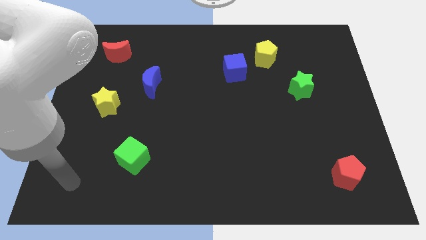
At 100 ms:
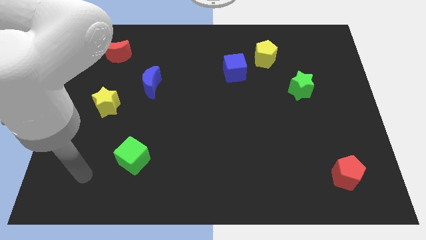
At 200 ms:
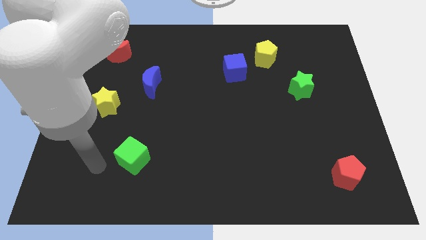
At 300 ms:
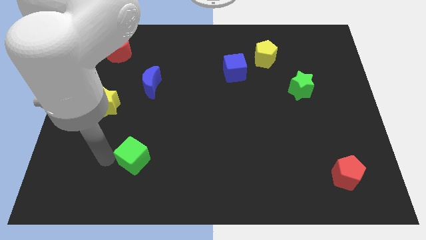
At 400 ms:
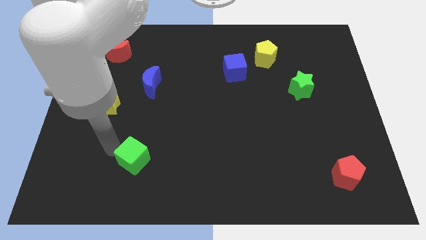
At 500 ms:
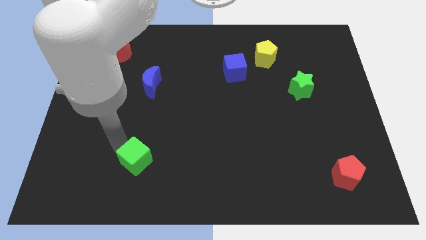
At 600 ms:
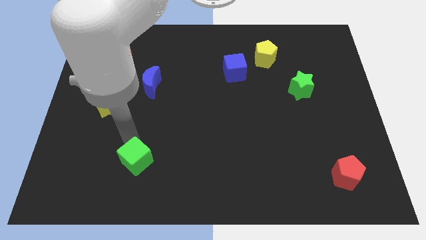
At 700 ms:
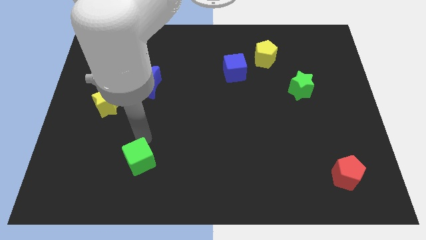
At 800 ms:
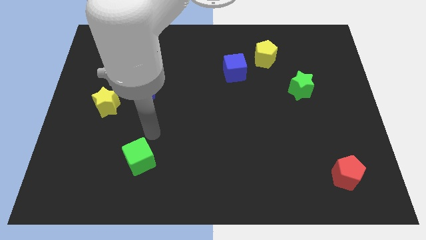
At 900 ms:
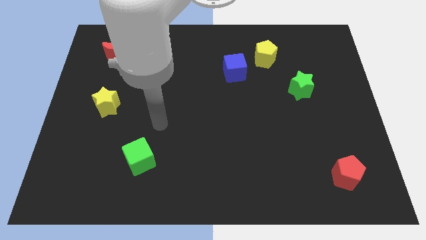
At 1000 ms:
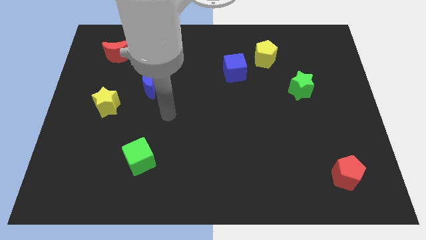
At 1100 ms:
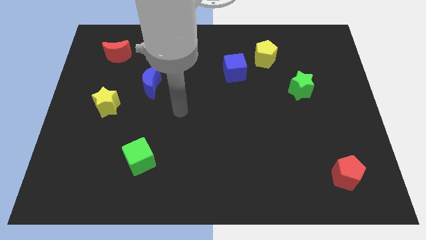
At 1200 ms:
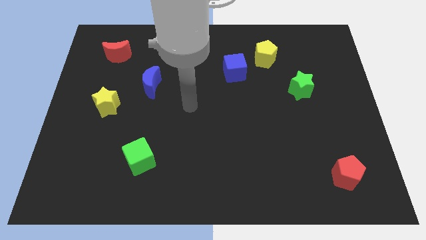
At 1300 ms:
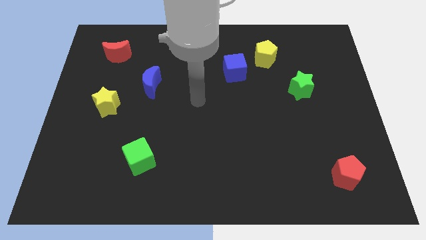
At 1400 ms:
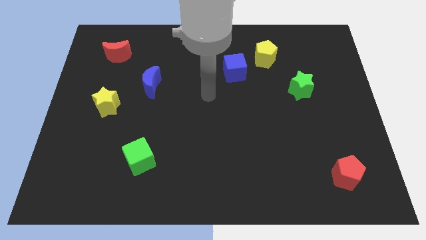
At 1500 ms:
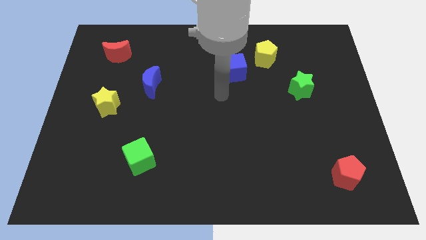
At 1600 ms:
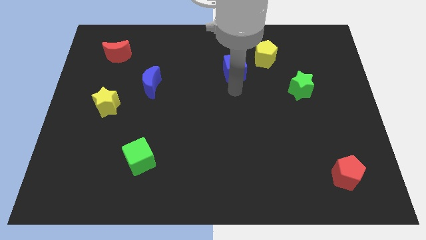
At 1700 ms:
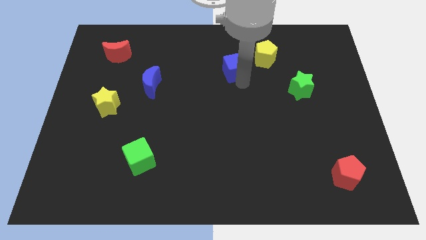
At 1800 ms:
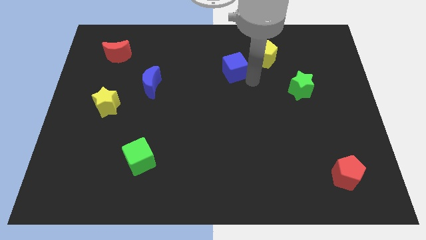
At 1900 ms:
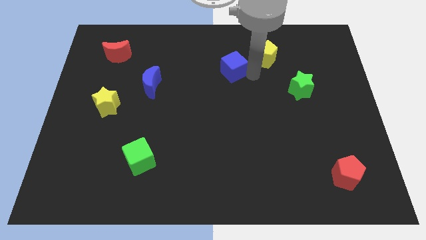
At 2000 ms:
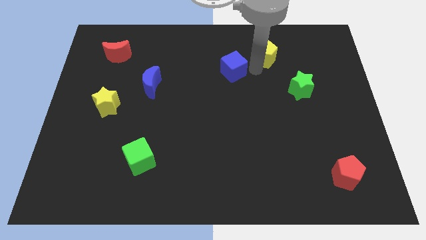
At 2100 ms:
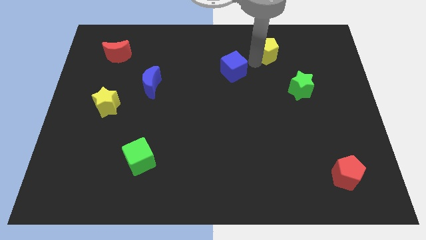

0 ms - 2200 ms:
separate the blue cube from the yellow pentagon

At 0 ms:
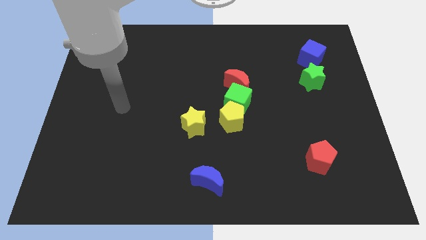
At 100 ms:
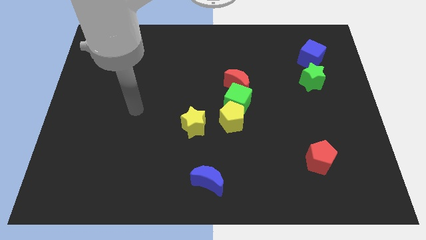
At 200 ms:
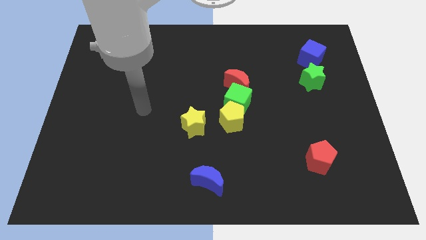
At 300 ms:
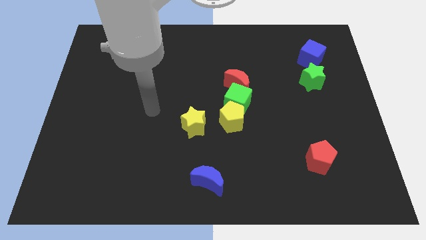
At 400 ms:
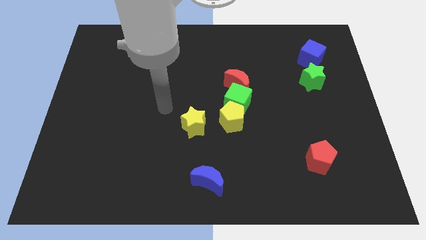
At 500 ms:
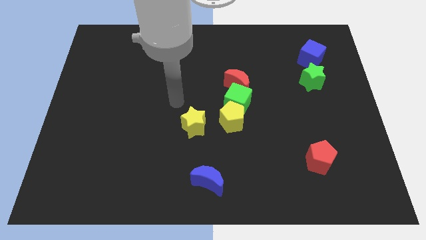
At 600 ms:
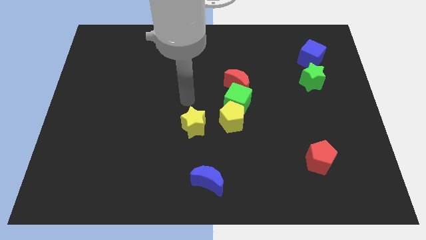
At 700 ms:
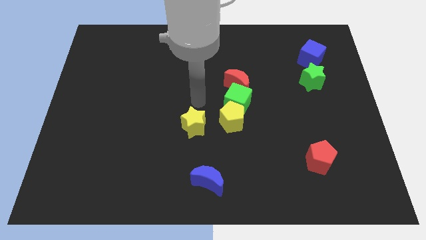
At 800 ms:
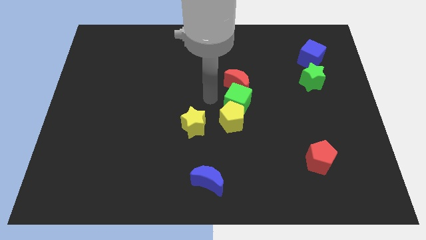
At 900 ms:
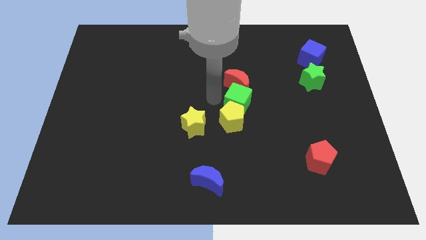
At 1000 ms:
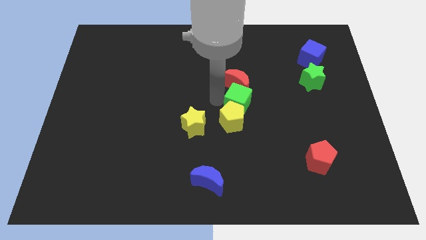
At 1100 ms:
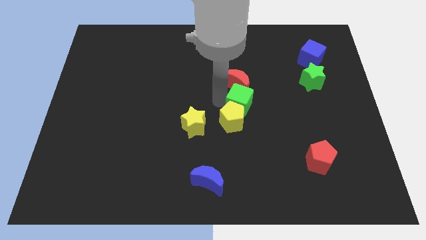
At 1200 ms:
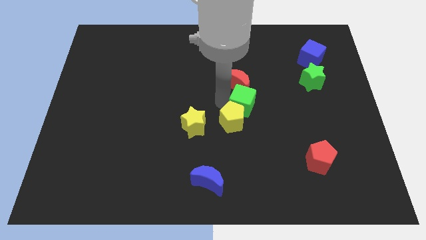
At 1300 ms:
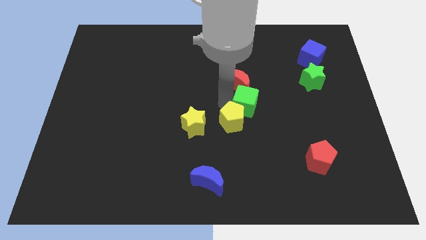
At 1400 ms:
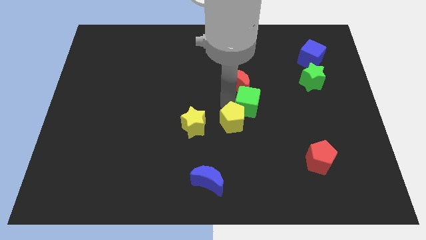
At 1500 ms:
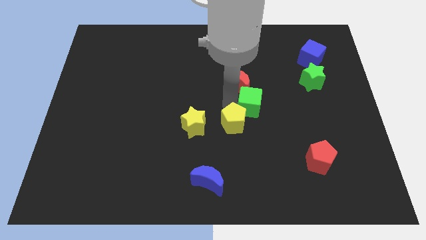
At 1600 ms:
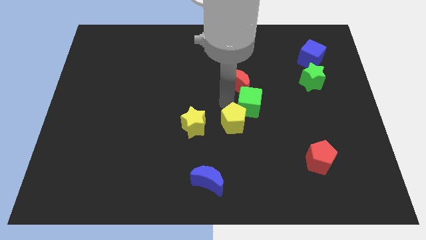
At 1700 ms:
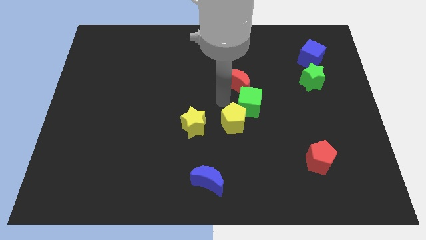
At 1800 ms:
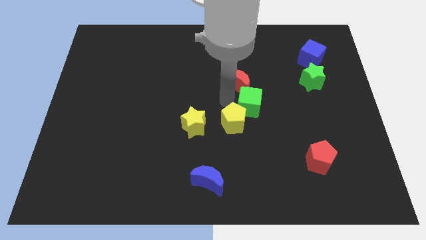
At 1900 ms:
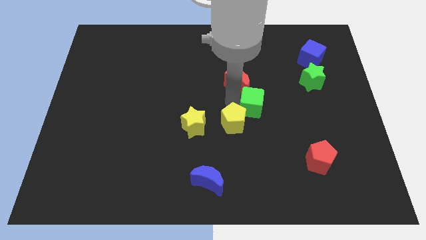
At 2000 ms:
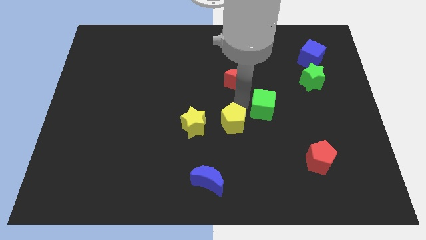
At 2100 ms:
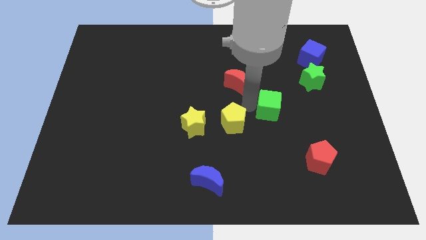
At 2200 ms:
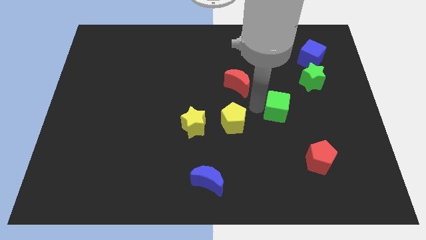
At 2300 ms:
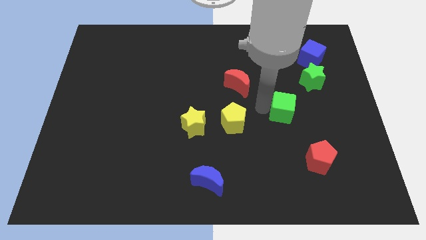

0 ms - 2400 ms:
separate the green cube from the yellow pentagon and red moon

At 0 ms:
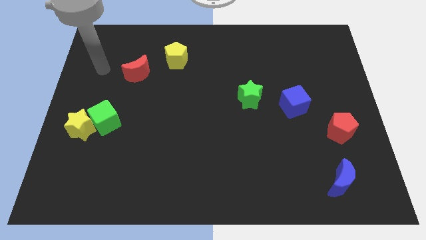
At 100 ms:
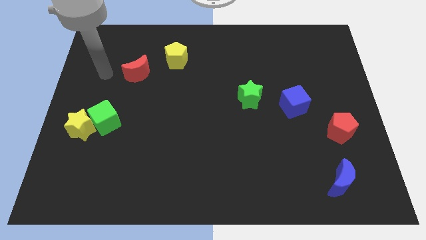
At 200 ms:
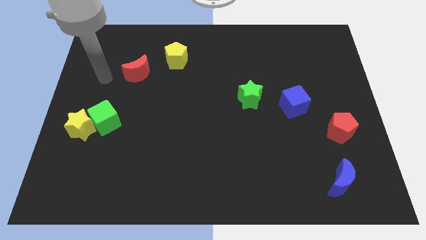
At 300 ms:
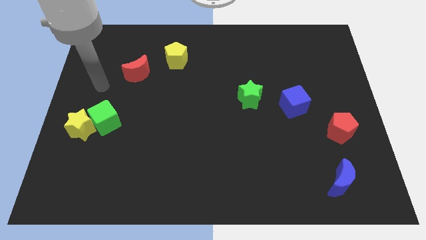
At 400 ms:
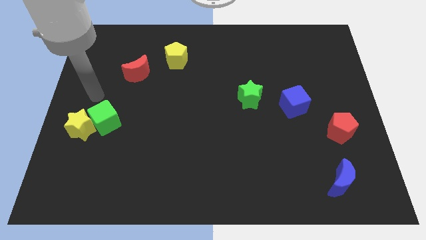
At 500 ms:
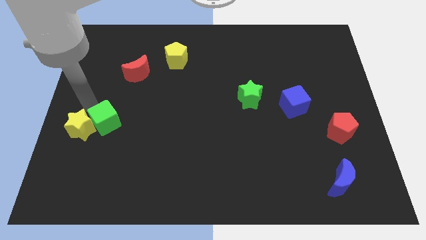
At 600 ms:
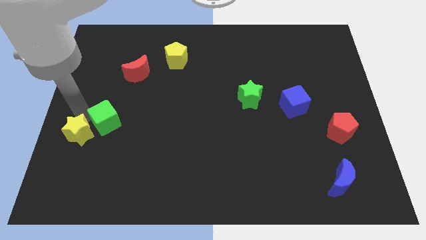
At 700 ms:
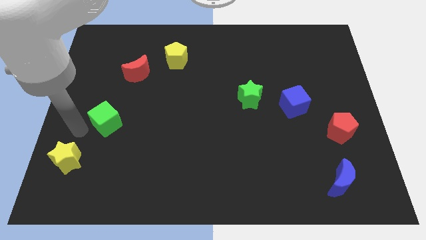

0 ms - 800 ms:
move the green cube away from the yellow star

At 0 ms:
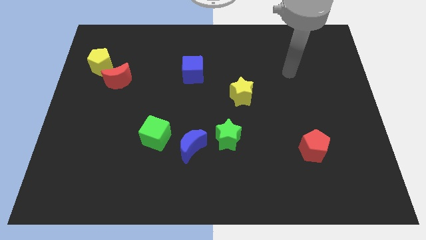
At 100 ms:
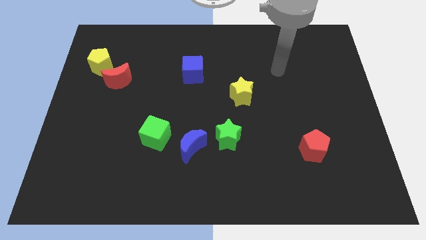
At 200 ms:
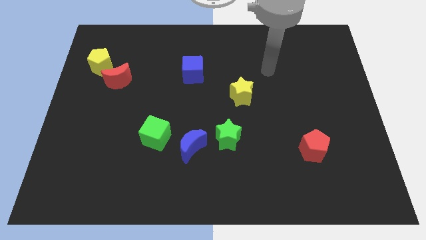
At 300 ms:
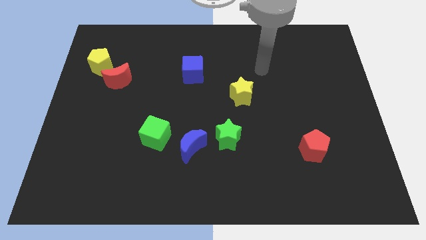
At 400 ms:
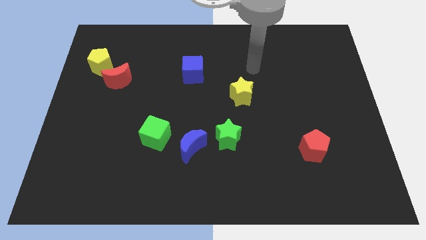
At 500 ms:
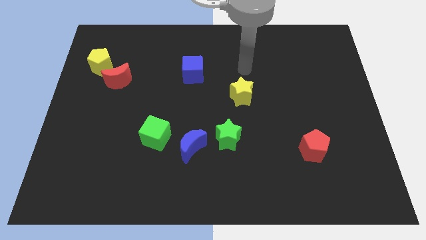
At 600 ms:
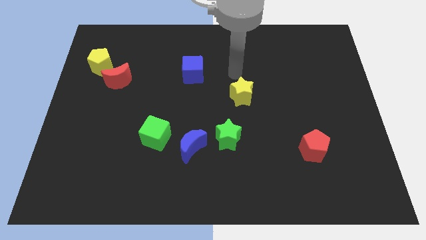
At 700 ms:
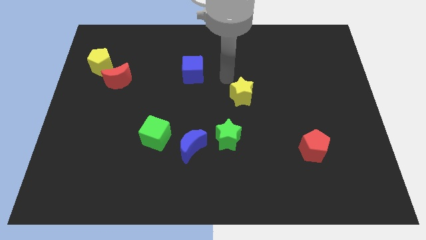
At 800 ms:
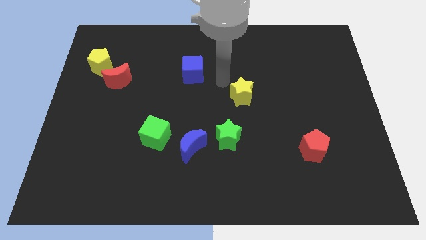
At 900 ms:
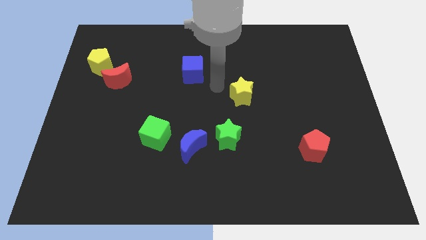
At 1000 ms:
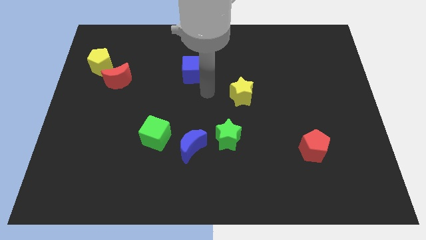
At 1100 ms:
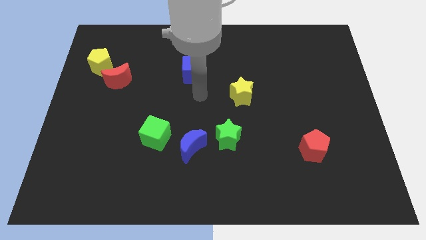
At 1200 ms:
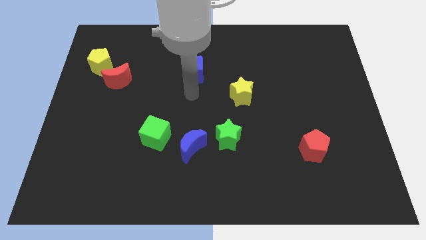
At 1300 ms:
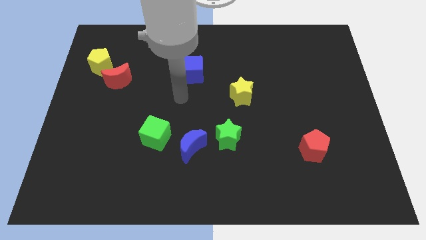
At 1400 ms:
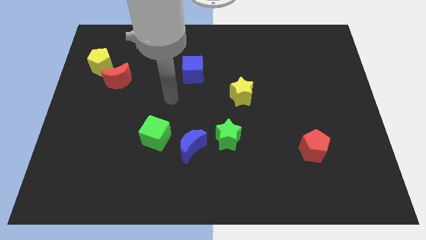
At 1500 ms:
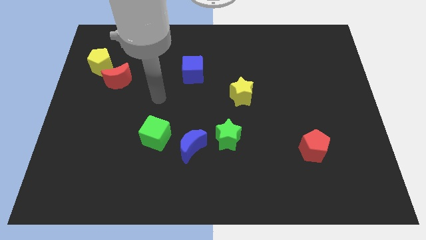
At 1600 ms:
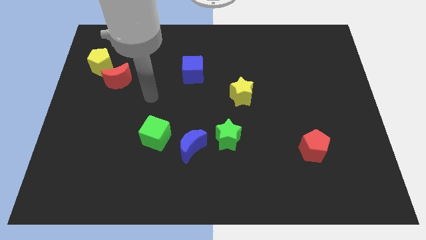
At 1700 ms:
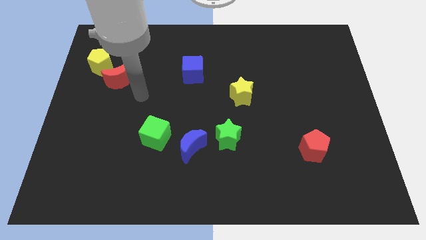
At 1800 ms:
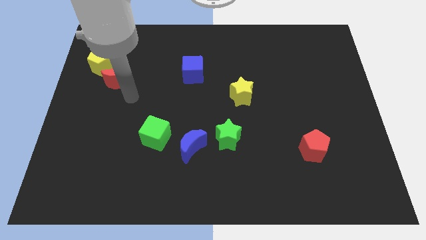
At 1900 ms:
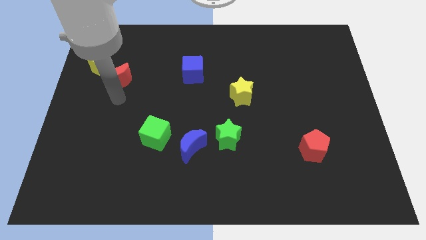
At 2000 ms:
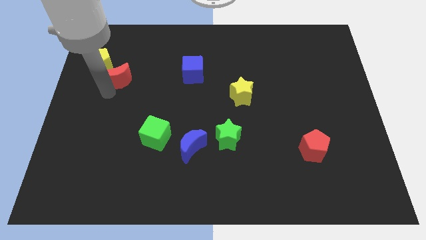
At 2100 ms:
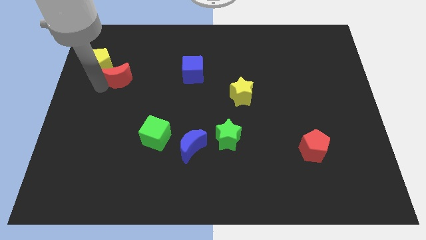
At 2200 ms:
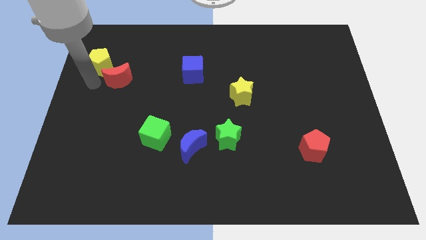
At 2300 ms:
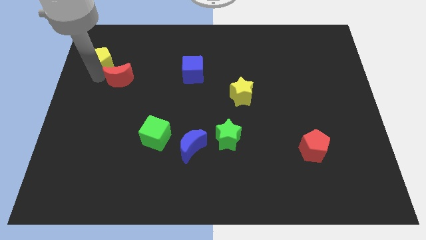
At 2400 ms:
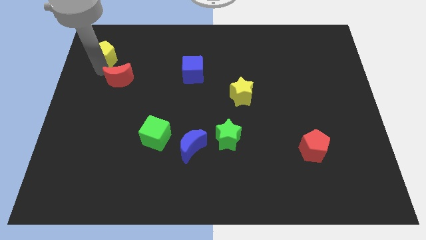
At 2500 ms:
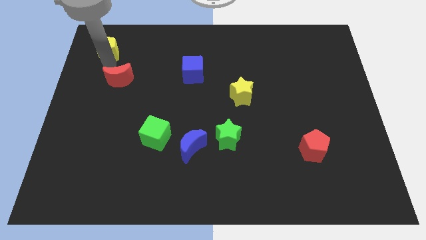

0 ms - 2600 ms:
separate the red moon from the yellow pentagon

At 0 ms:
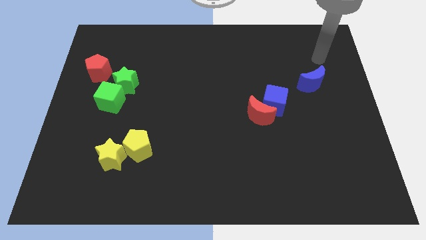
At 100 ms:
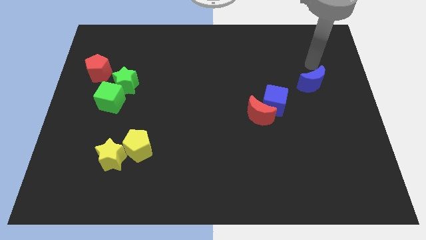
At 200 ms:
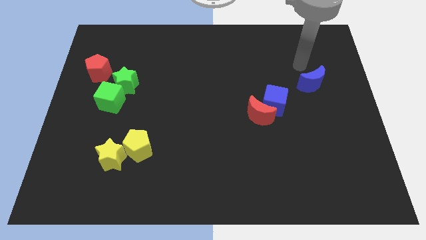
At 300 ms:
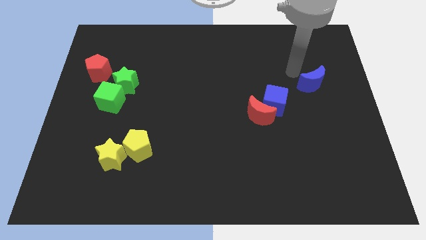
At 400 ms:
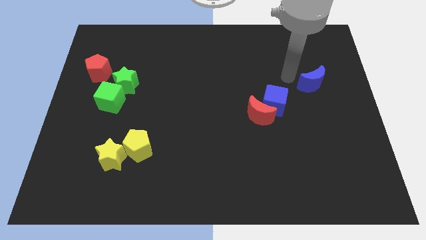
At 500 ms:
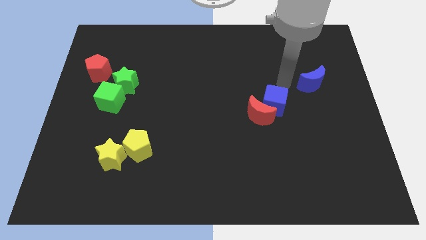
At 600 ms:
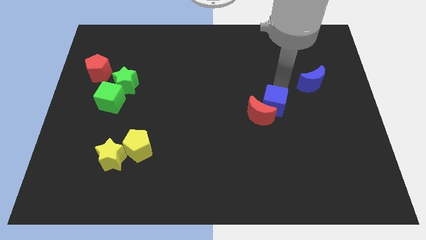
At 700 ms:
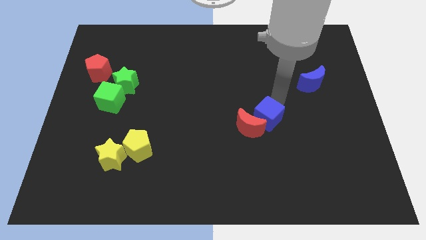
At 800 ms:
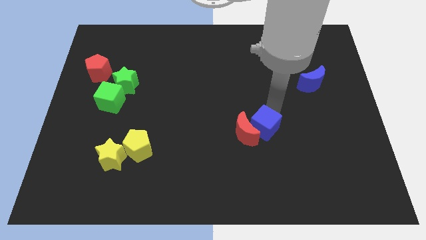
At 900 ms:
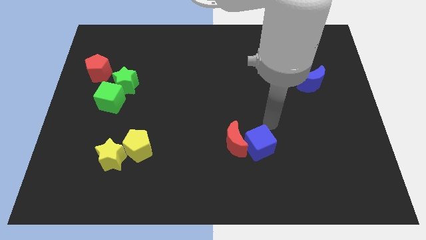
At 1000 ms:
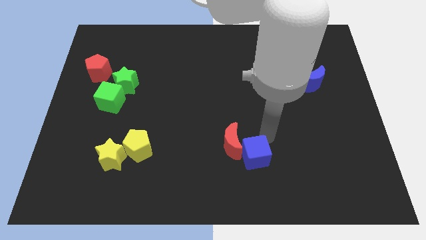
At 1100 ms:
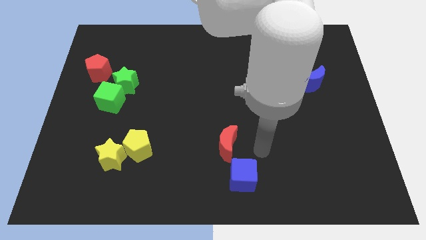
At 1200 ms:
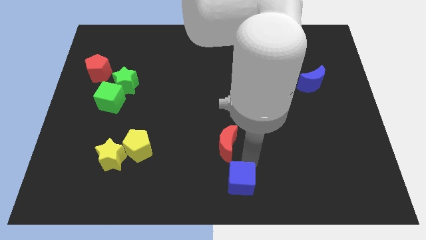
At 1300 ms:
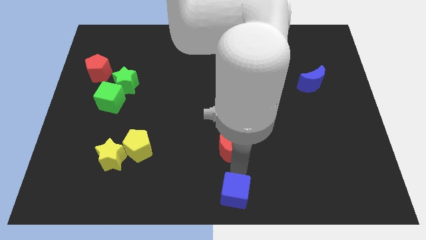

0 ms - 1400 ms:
separate the red moon from the blue cube
